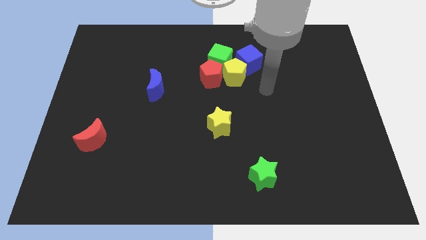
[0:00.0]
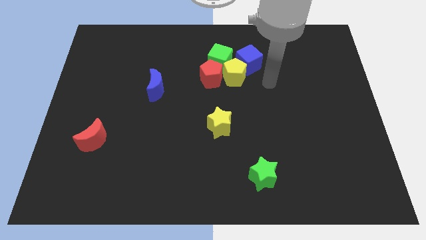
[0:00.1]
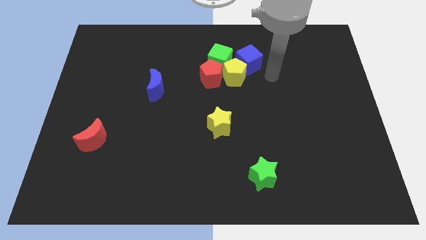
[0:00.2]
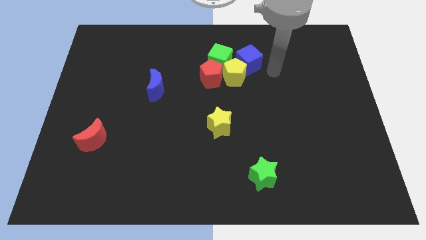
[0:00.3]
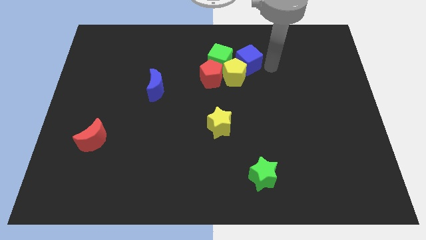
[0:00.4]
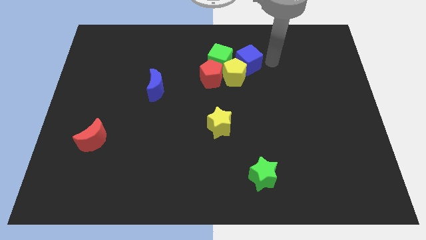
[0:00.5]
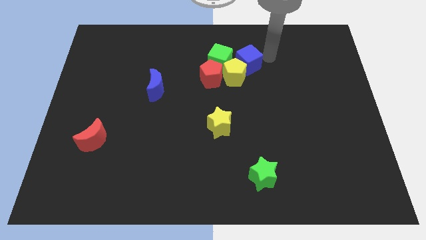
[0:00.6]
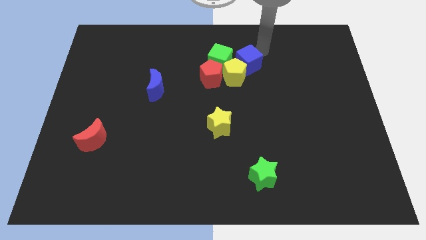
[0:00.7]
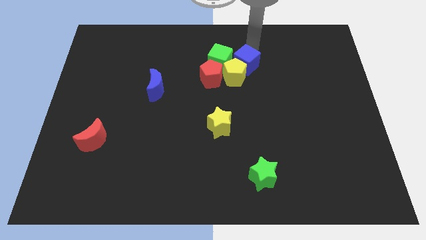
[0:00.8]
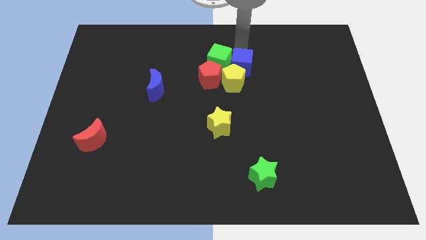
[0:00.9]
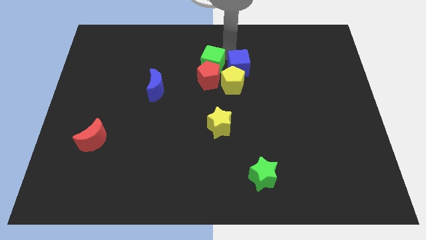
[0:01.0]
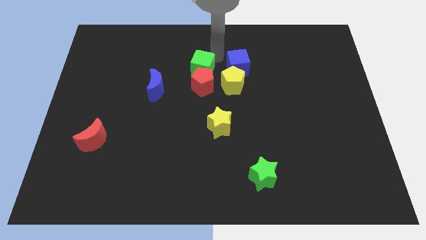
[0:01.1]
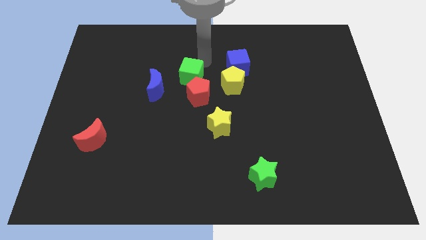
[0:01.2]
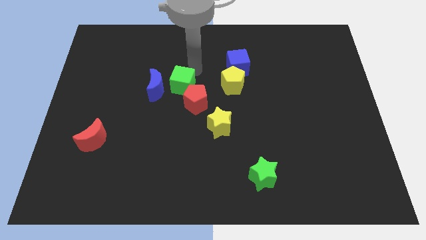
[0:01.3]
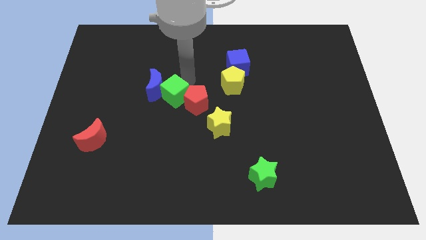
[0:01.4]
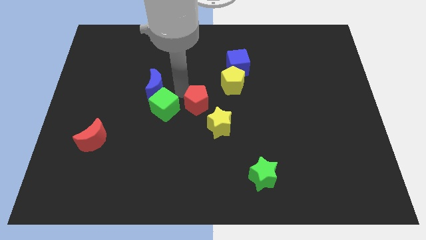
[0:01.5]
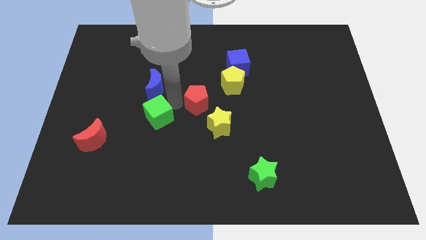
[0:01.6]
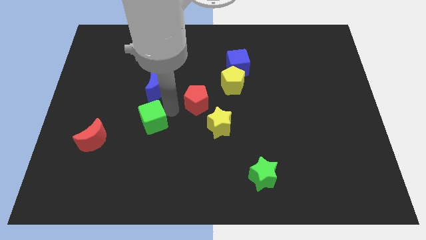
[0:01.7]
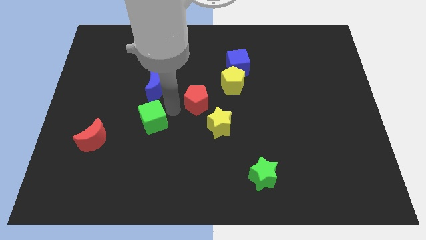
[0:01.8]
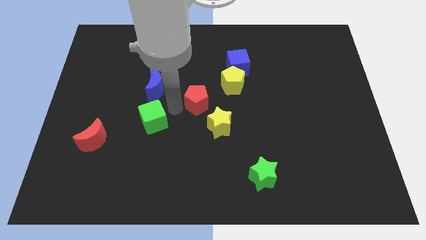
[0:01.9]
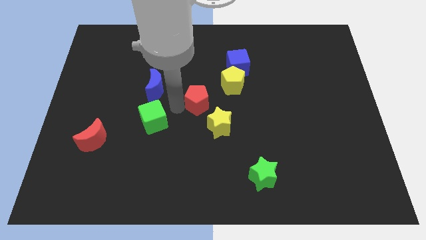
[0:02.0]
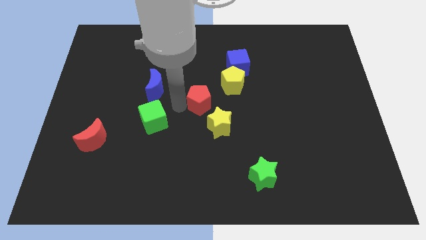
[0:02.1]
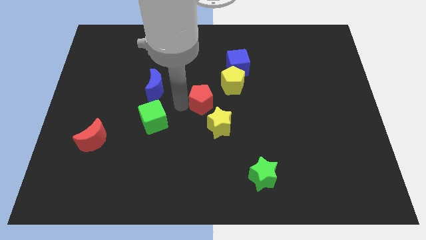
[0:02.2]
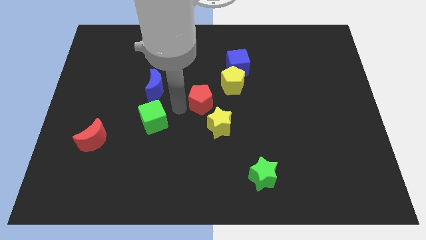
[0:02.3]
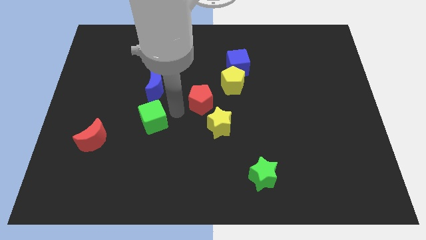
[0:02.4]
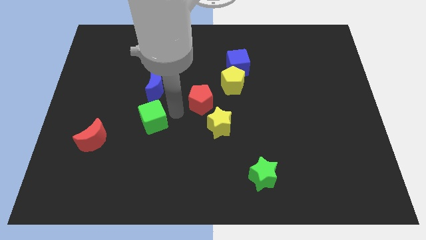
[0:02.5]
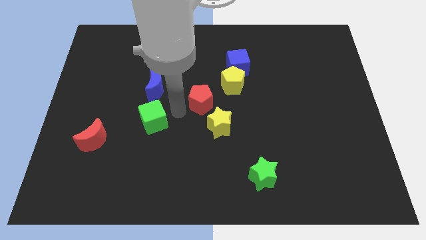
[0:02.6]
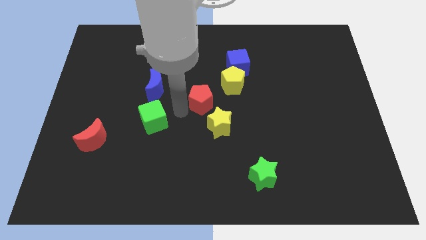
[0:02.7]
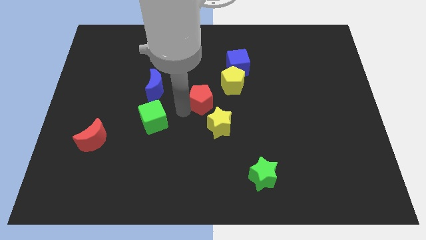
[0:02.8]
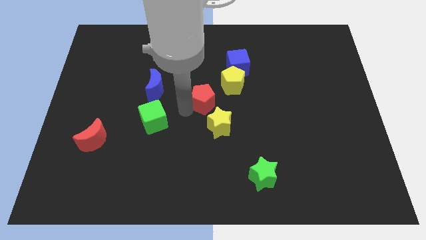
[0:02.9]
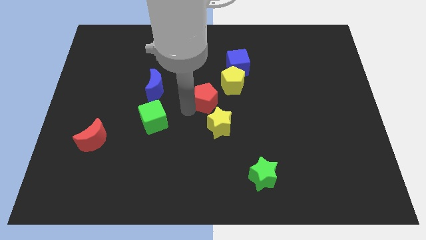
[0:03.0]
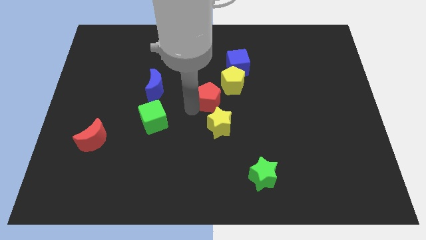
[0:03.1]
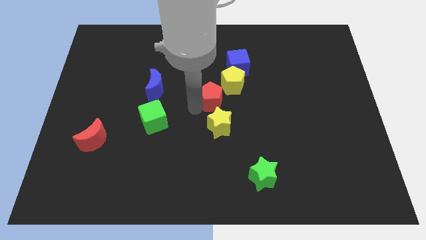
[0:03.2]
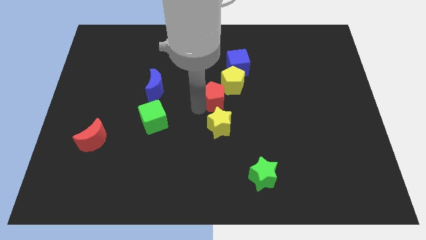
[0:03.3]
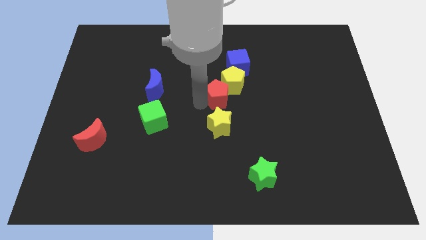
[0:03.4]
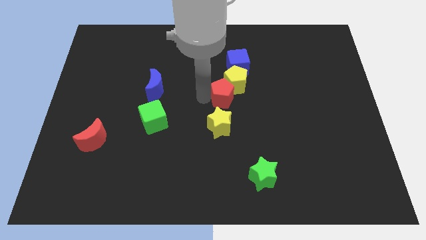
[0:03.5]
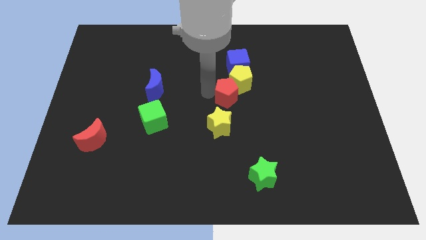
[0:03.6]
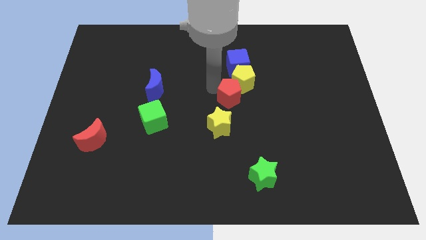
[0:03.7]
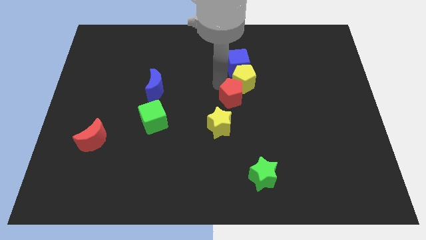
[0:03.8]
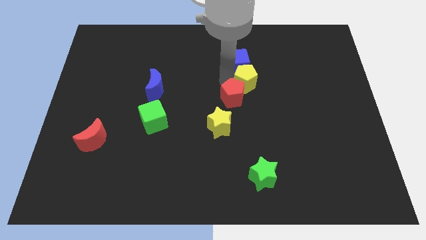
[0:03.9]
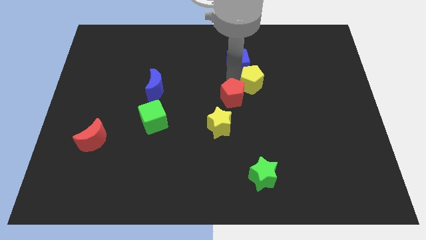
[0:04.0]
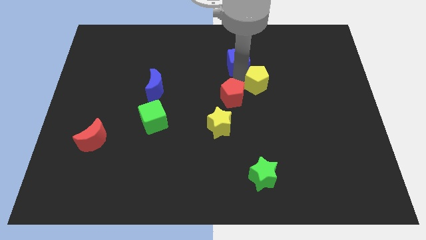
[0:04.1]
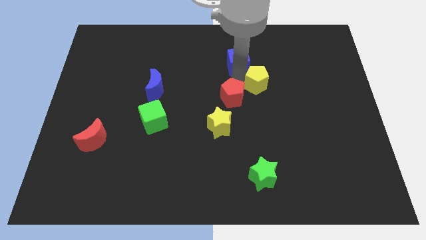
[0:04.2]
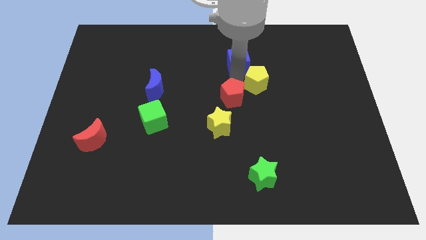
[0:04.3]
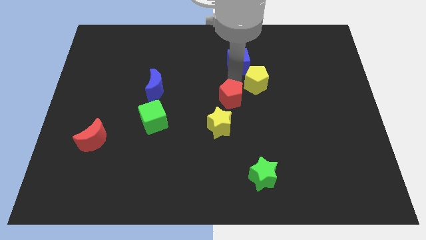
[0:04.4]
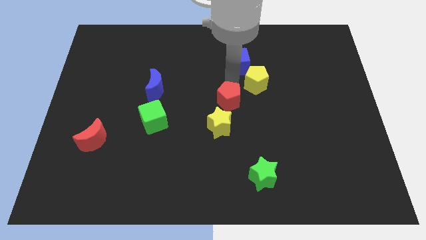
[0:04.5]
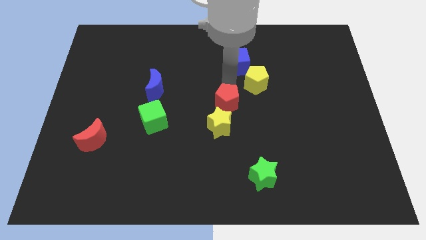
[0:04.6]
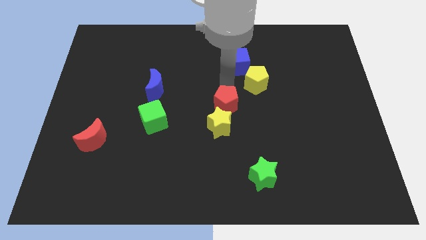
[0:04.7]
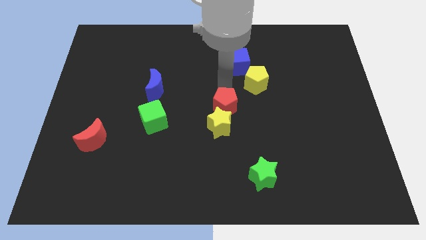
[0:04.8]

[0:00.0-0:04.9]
push the red pentagon close to the yellow star

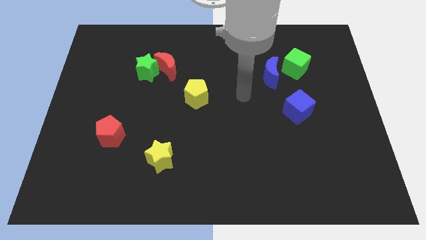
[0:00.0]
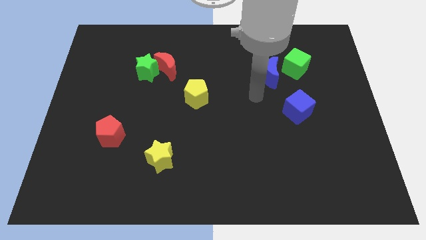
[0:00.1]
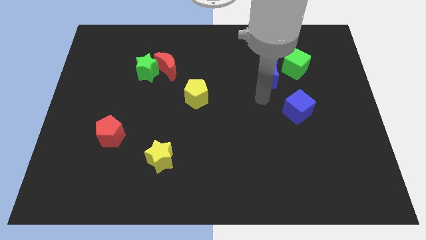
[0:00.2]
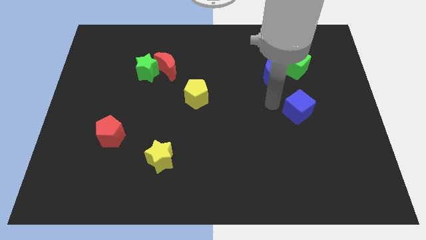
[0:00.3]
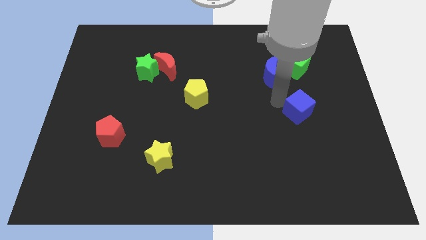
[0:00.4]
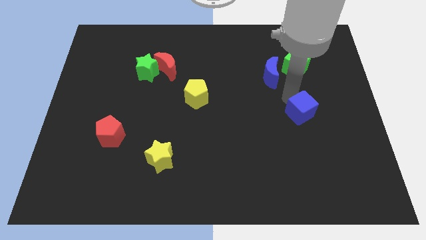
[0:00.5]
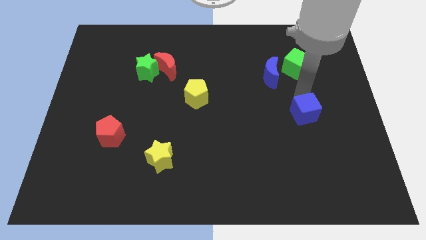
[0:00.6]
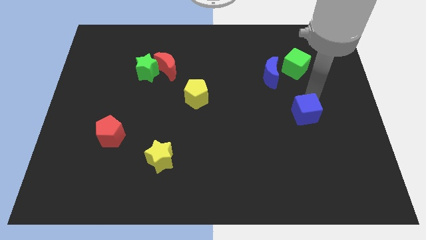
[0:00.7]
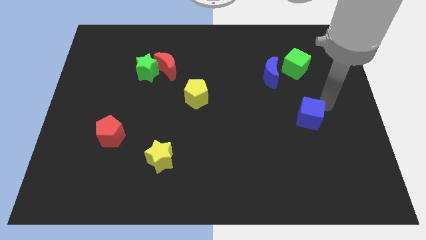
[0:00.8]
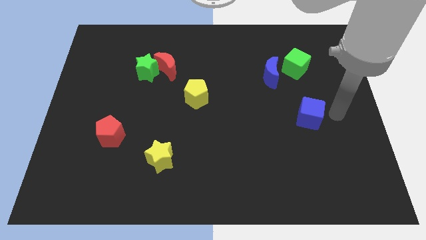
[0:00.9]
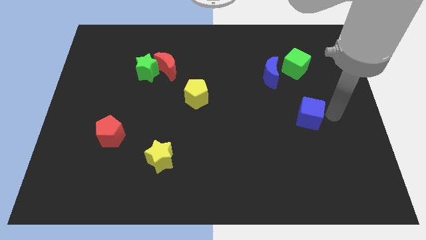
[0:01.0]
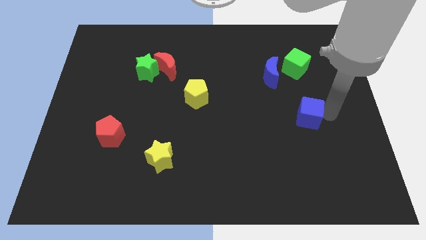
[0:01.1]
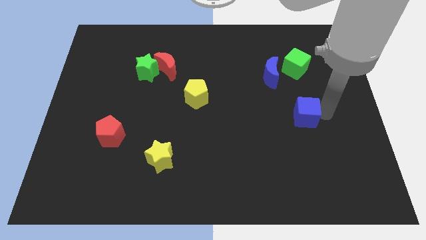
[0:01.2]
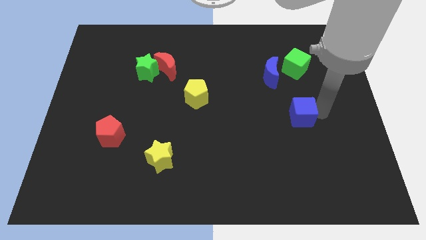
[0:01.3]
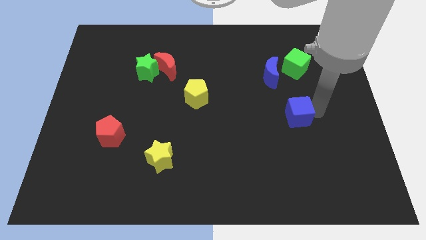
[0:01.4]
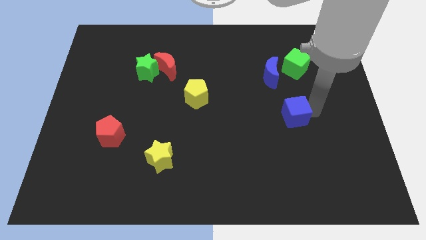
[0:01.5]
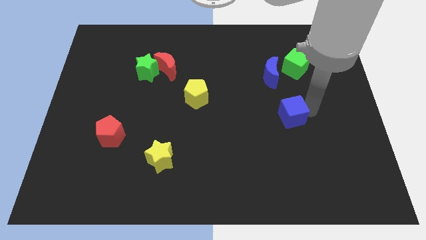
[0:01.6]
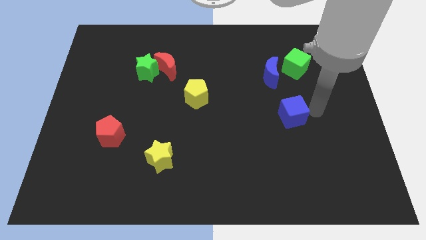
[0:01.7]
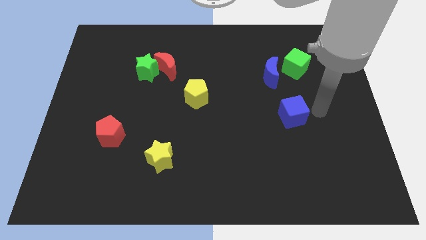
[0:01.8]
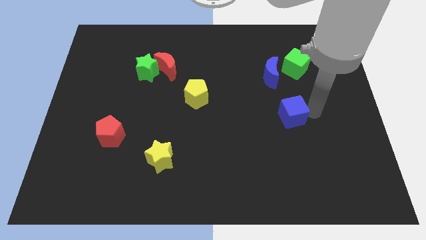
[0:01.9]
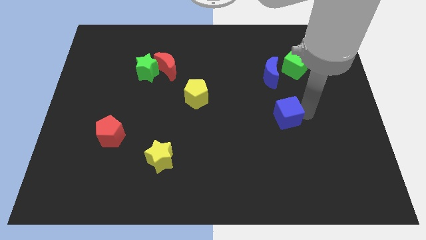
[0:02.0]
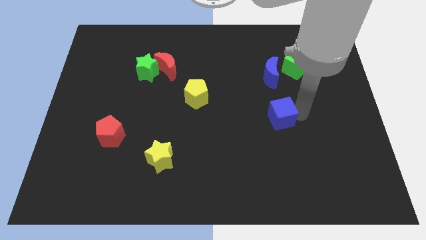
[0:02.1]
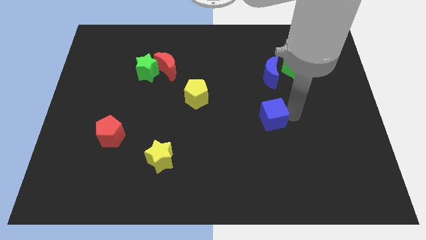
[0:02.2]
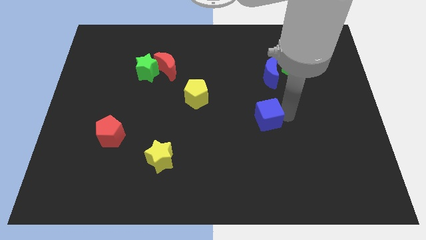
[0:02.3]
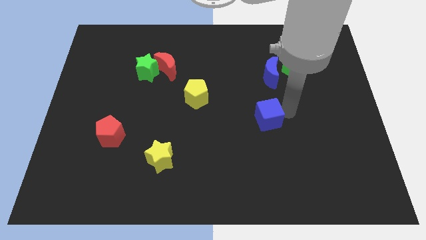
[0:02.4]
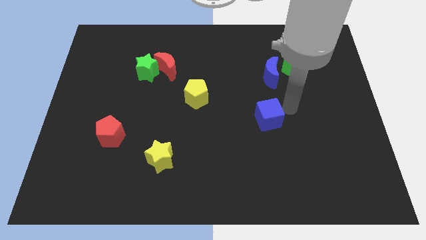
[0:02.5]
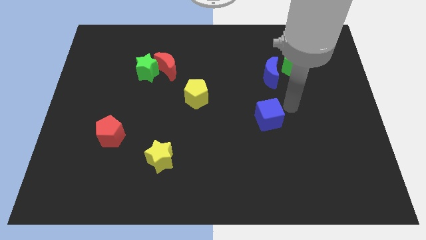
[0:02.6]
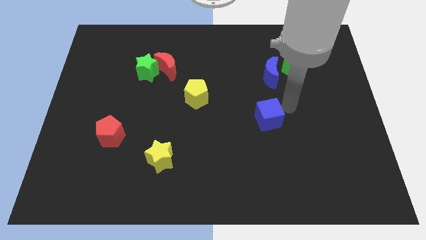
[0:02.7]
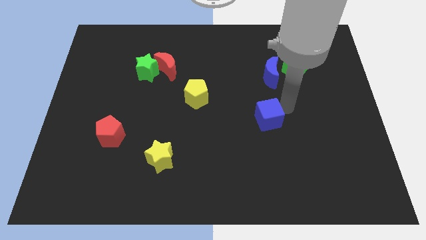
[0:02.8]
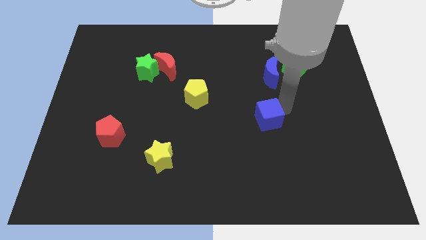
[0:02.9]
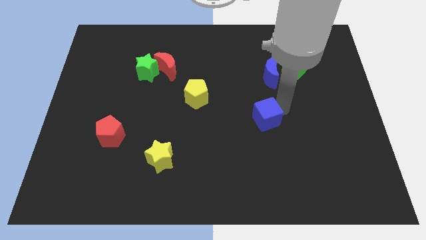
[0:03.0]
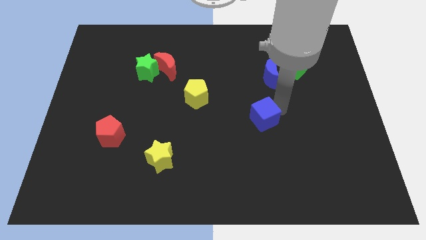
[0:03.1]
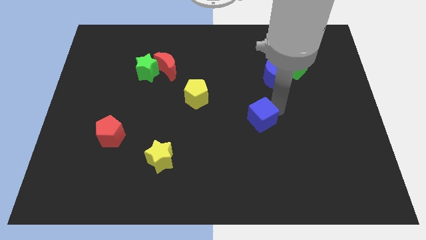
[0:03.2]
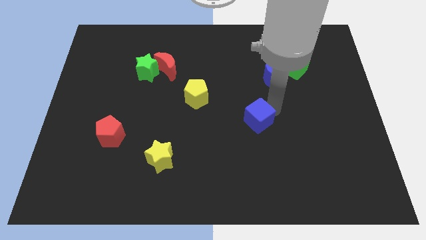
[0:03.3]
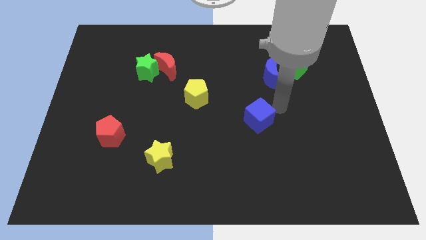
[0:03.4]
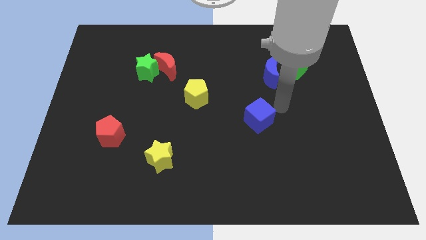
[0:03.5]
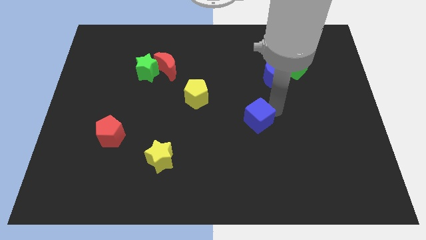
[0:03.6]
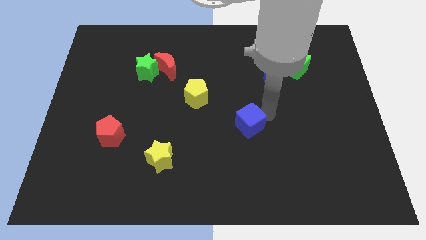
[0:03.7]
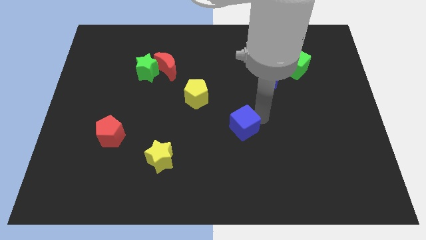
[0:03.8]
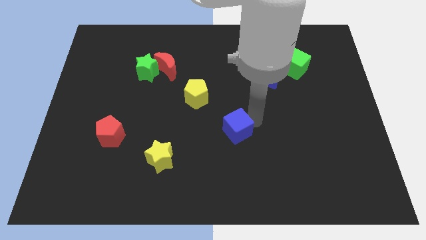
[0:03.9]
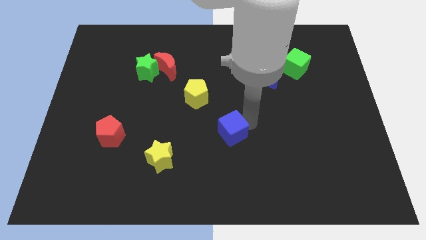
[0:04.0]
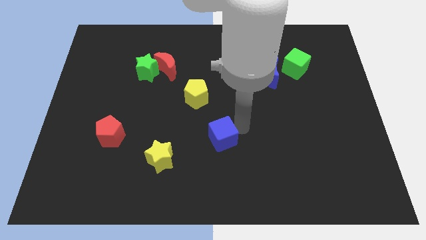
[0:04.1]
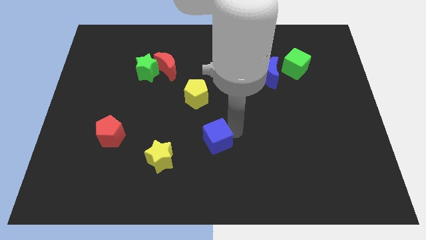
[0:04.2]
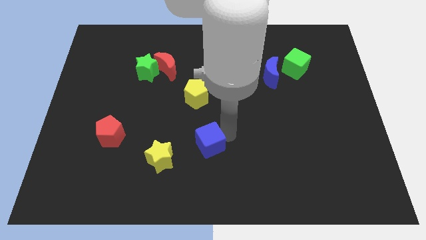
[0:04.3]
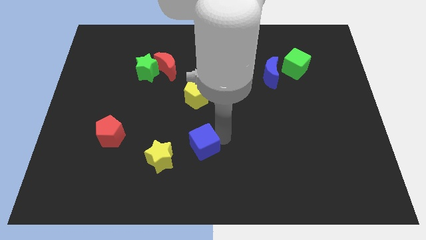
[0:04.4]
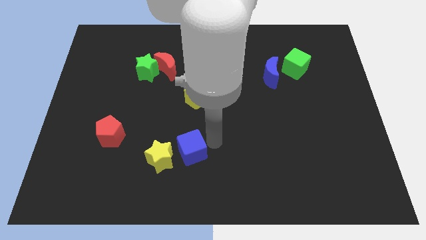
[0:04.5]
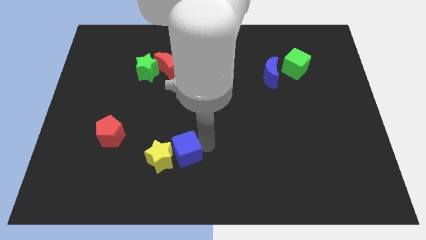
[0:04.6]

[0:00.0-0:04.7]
slide the blue cube towards the yellow star
